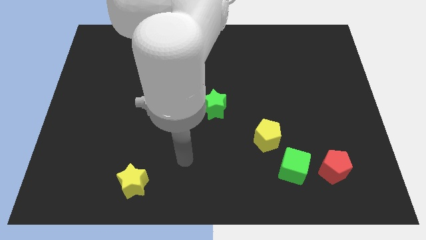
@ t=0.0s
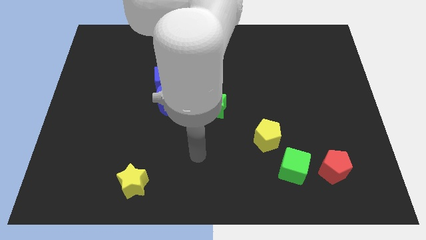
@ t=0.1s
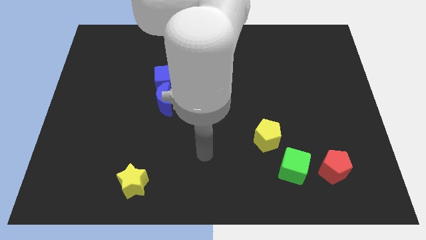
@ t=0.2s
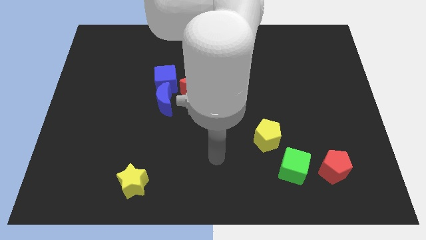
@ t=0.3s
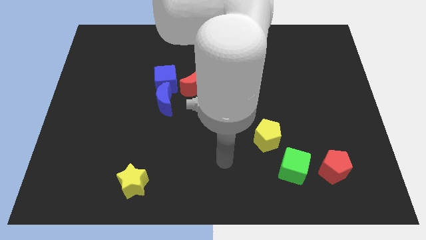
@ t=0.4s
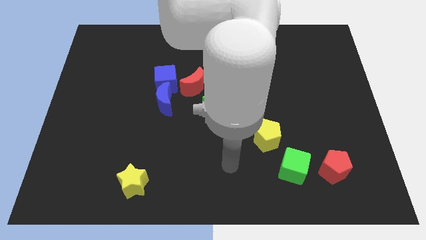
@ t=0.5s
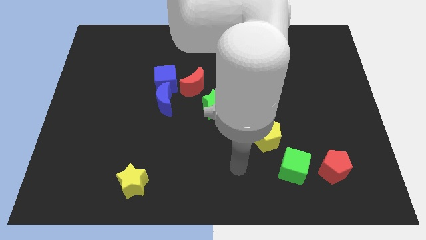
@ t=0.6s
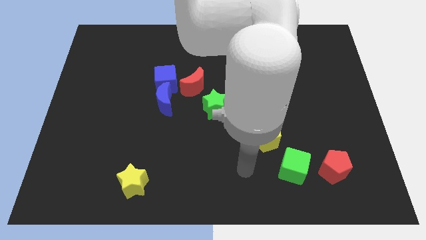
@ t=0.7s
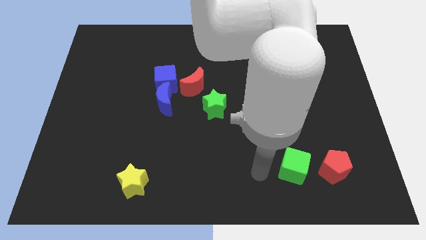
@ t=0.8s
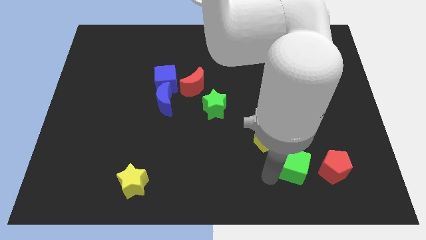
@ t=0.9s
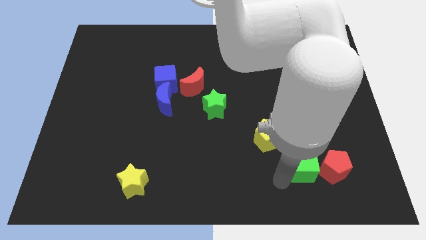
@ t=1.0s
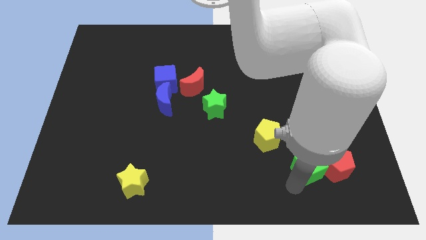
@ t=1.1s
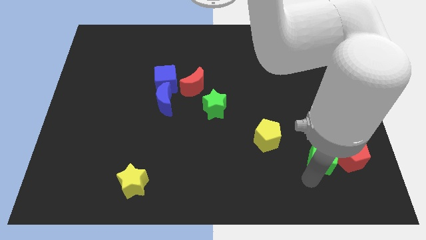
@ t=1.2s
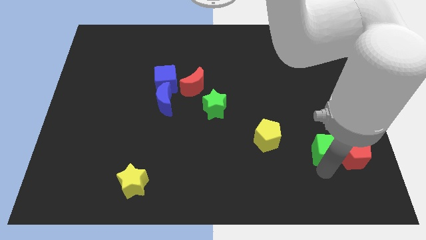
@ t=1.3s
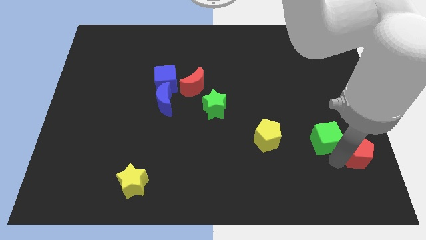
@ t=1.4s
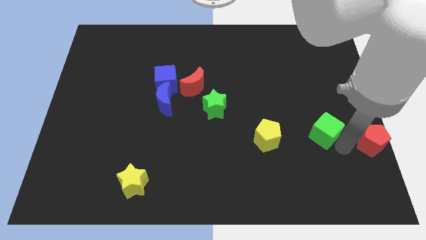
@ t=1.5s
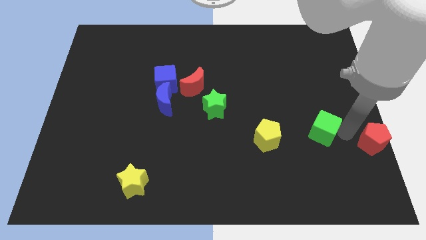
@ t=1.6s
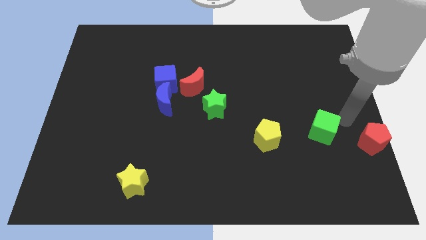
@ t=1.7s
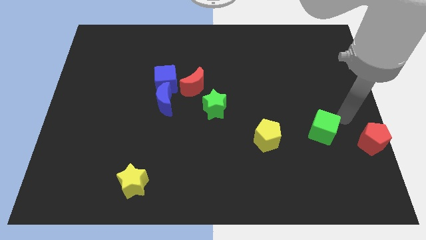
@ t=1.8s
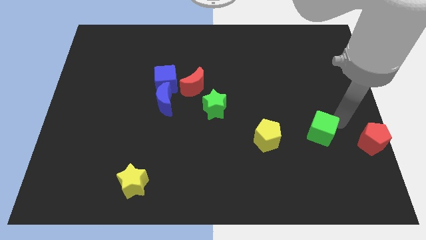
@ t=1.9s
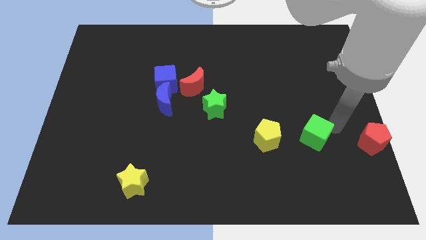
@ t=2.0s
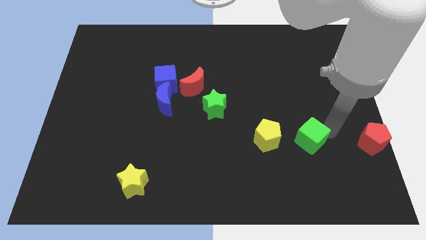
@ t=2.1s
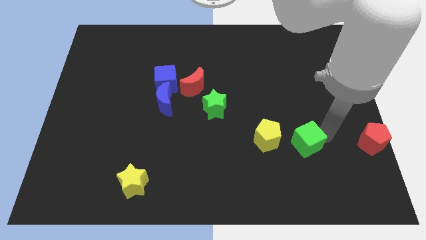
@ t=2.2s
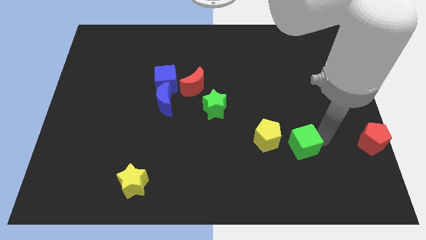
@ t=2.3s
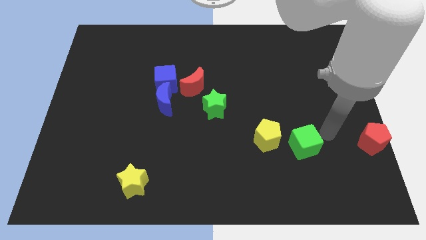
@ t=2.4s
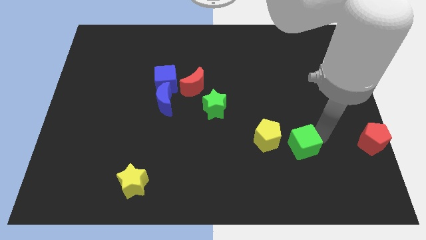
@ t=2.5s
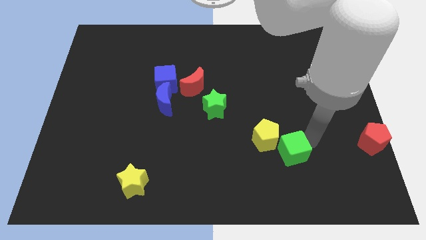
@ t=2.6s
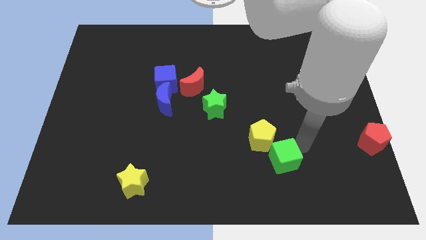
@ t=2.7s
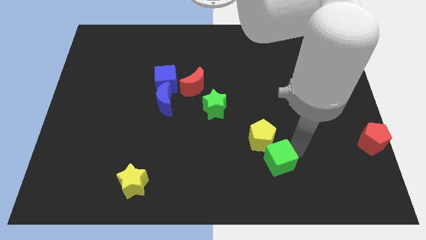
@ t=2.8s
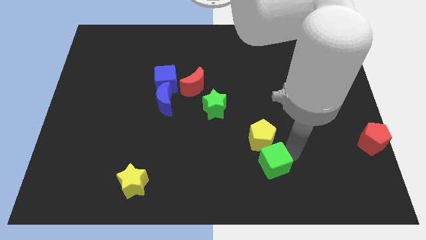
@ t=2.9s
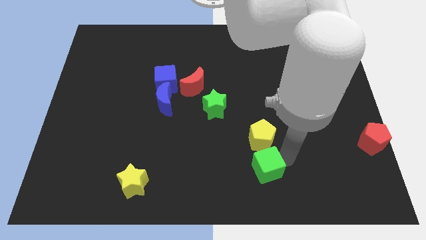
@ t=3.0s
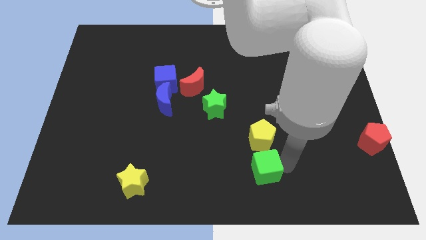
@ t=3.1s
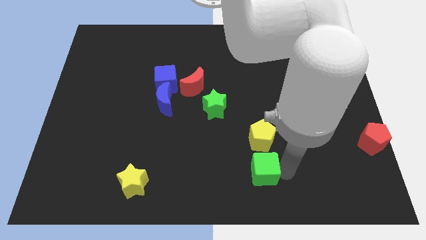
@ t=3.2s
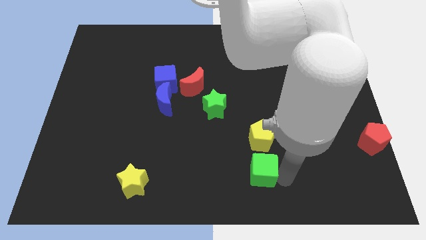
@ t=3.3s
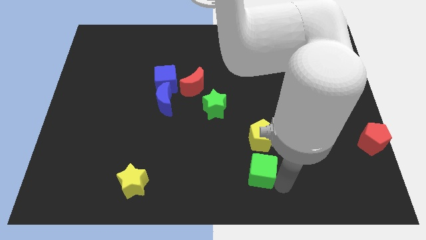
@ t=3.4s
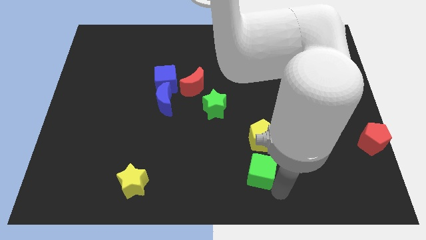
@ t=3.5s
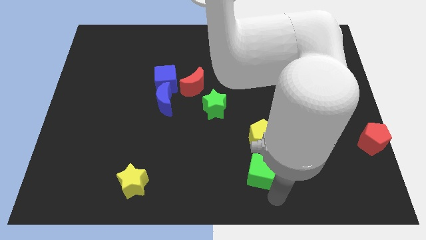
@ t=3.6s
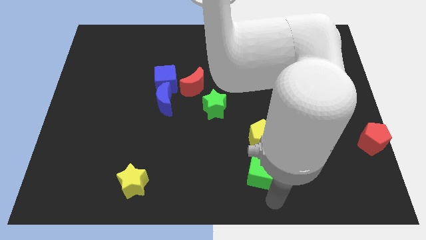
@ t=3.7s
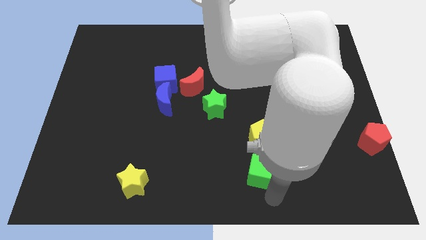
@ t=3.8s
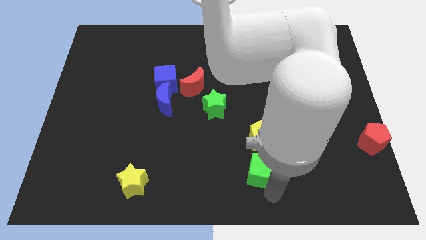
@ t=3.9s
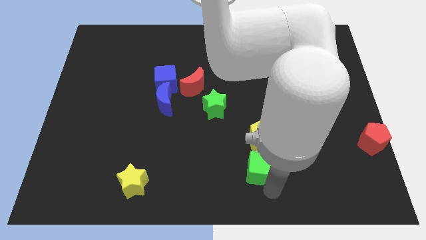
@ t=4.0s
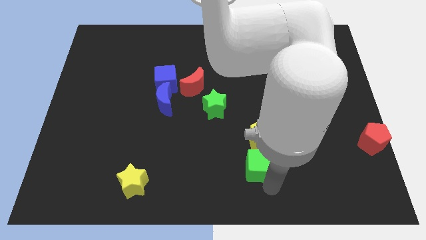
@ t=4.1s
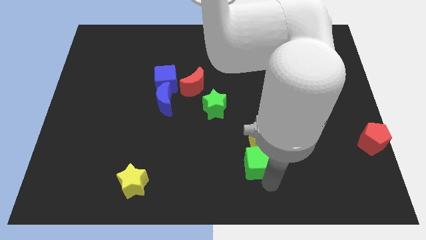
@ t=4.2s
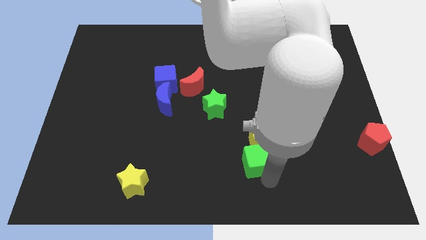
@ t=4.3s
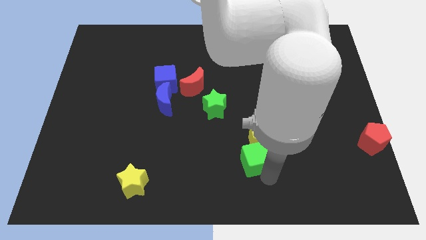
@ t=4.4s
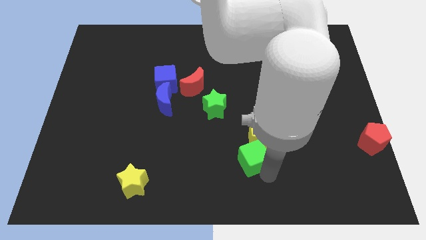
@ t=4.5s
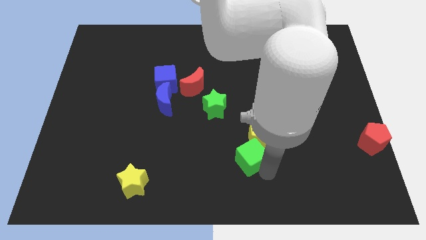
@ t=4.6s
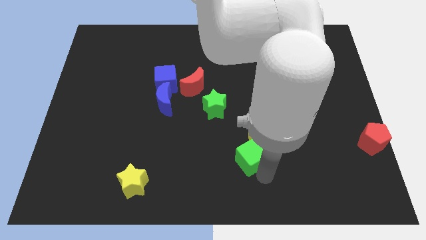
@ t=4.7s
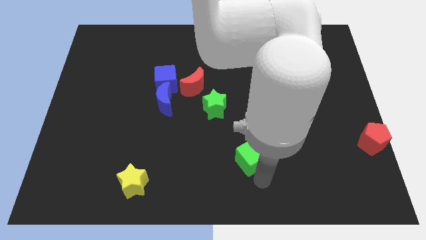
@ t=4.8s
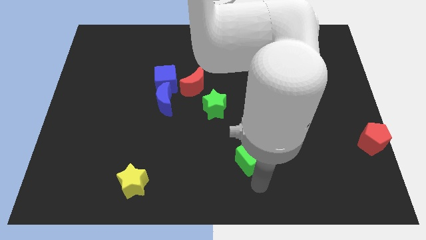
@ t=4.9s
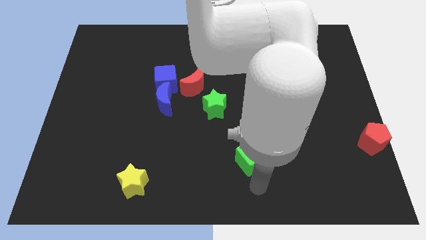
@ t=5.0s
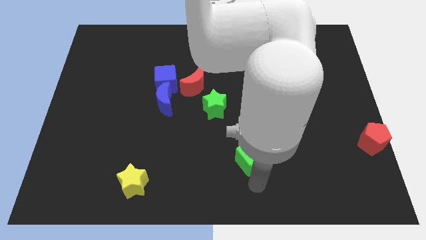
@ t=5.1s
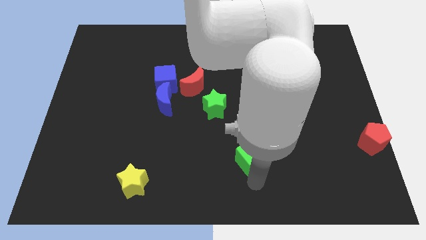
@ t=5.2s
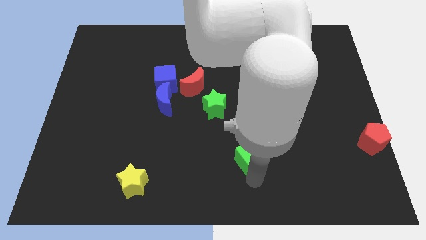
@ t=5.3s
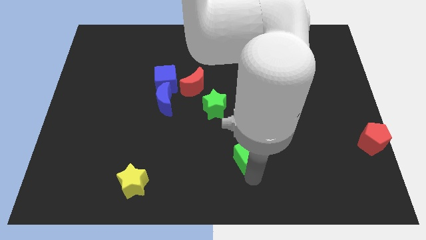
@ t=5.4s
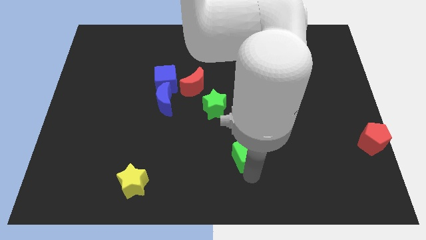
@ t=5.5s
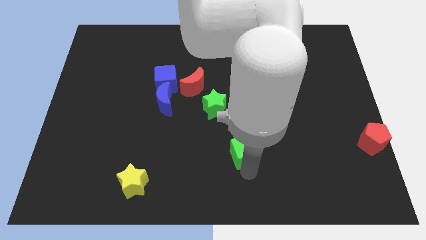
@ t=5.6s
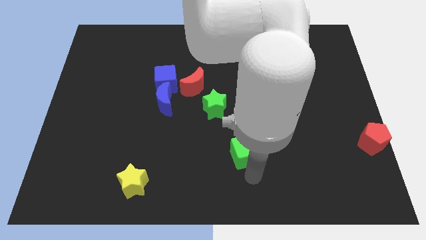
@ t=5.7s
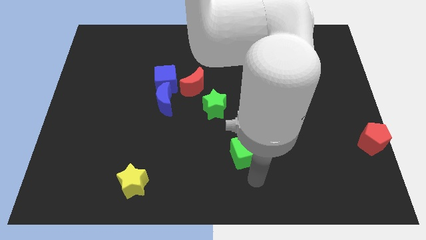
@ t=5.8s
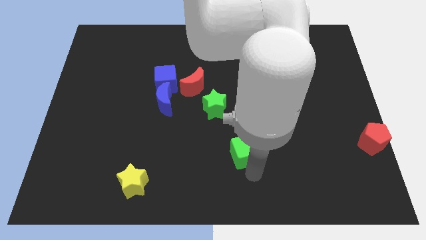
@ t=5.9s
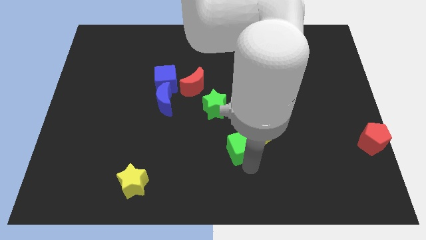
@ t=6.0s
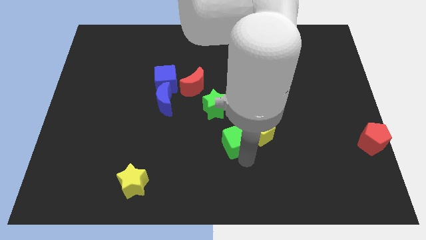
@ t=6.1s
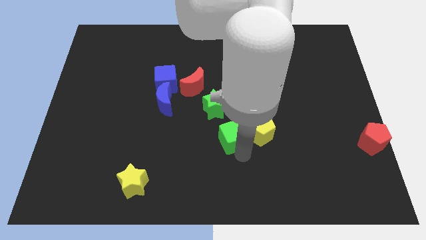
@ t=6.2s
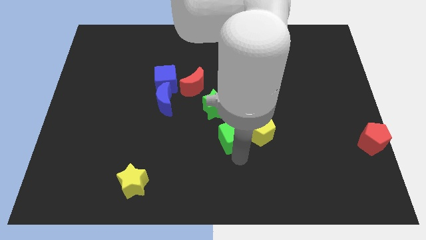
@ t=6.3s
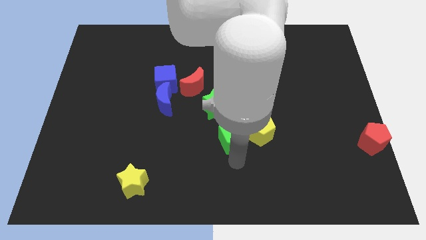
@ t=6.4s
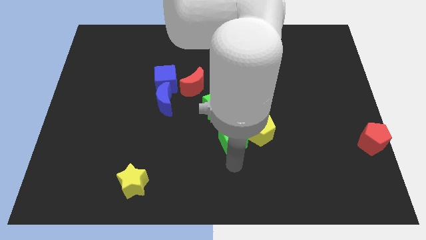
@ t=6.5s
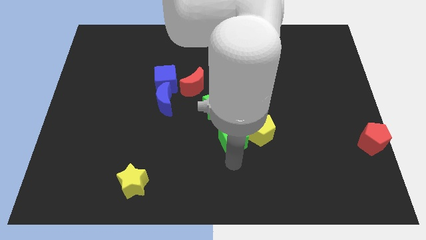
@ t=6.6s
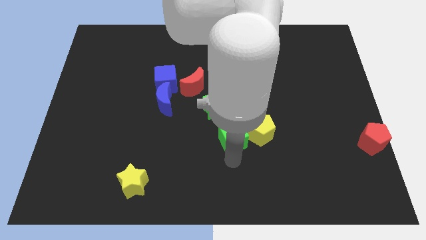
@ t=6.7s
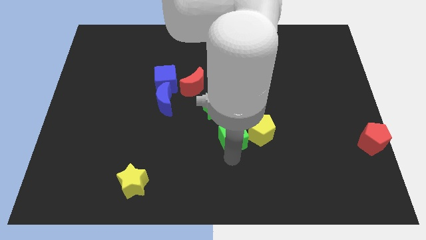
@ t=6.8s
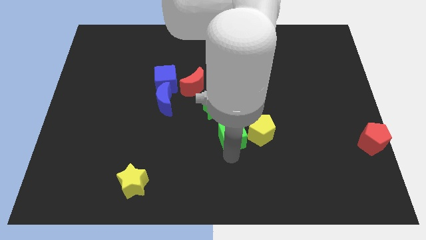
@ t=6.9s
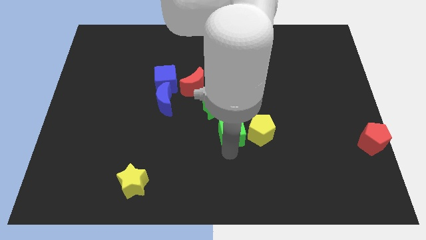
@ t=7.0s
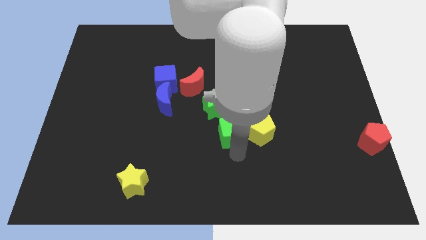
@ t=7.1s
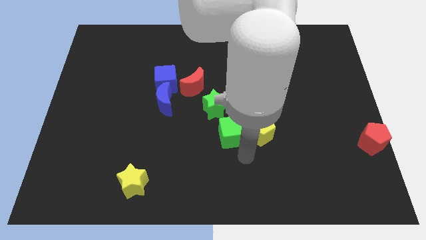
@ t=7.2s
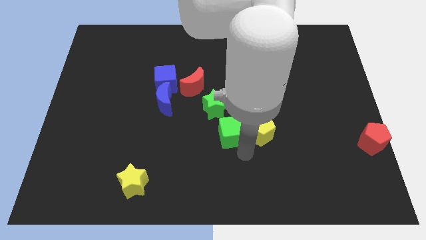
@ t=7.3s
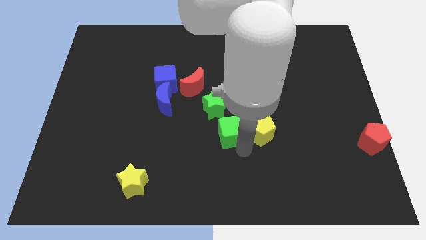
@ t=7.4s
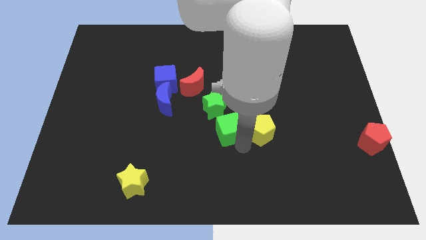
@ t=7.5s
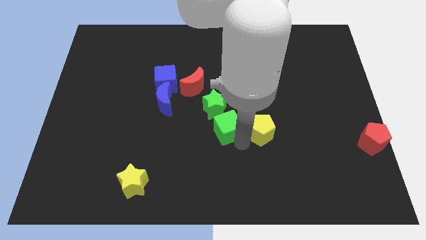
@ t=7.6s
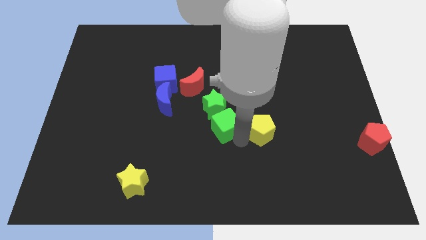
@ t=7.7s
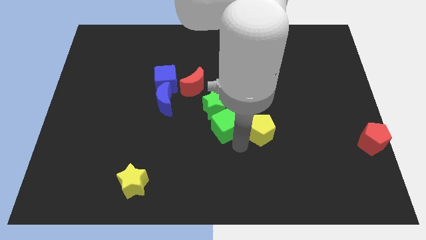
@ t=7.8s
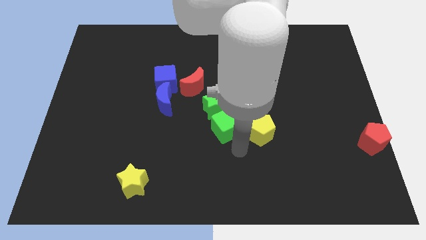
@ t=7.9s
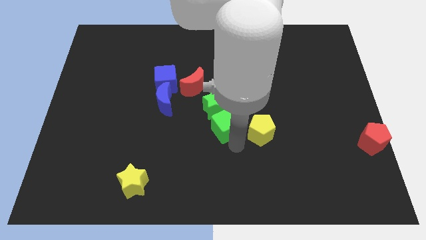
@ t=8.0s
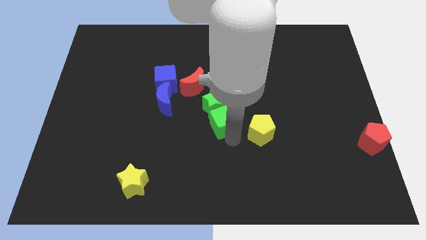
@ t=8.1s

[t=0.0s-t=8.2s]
move the green cube next to the green star
